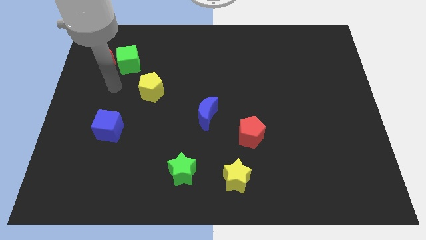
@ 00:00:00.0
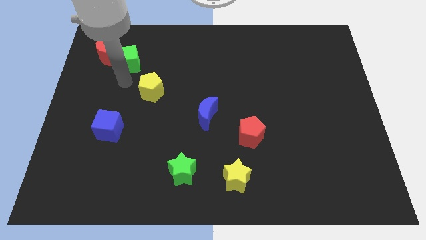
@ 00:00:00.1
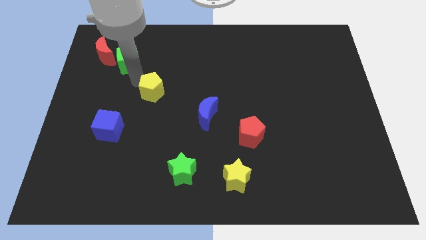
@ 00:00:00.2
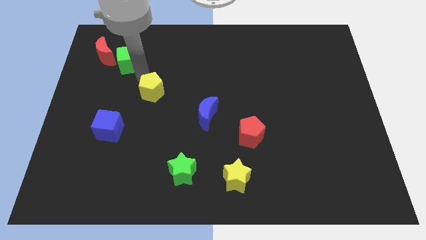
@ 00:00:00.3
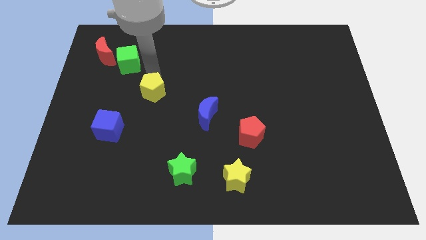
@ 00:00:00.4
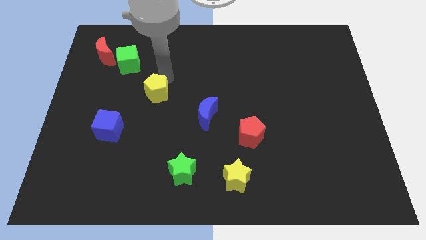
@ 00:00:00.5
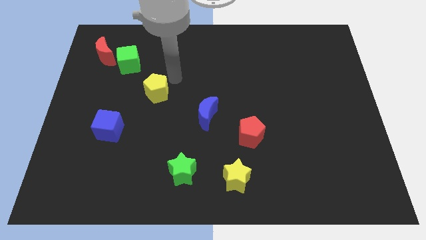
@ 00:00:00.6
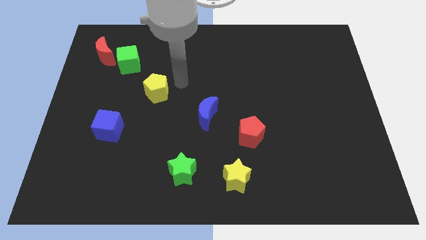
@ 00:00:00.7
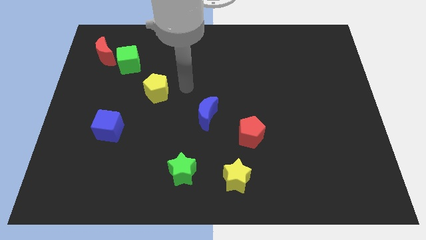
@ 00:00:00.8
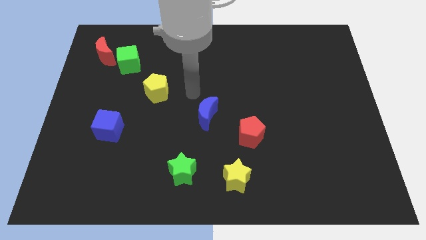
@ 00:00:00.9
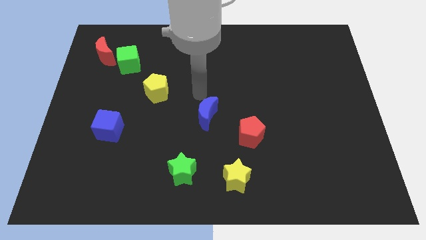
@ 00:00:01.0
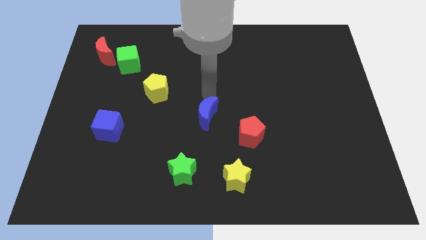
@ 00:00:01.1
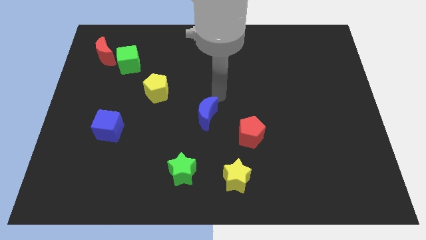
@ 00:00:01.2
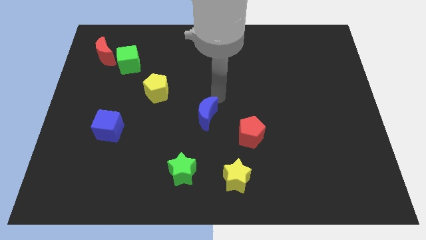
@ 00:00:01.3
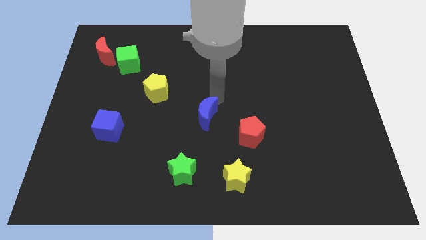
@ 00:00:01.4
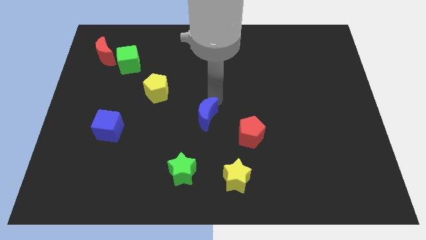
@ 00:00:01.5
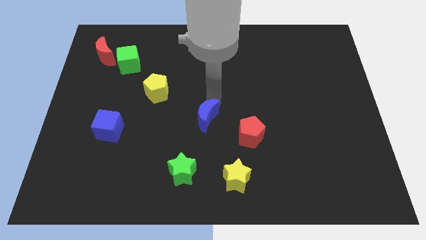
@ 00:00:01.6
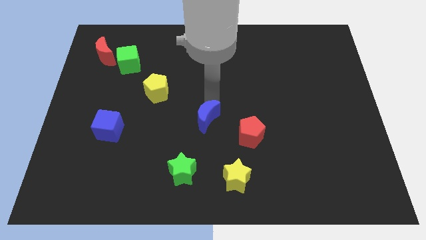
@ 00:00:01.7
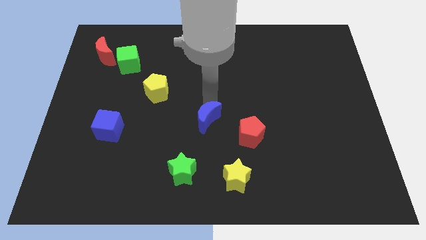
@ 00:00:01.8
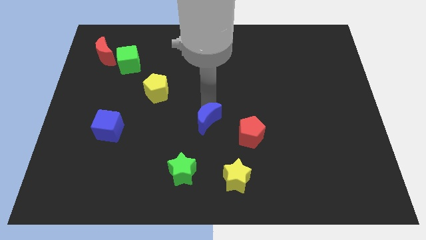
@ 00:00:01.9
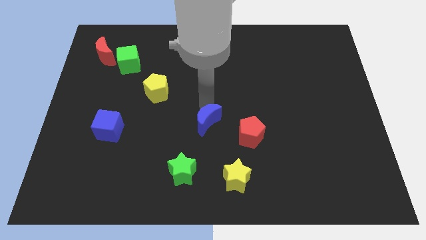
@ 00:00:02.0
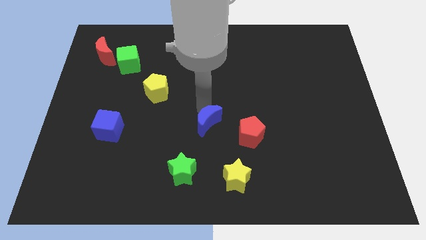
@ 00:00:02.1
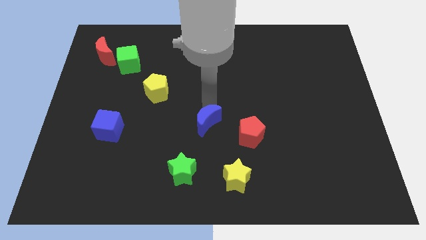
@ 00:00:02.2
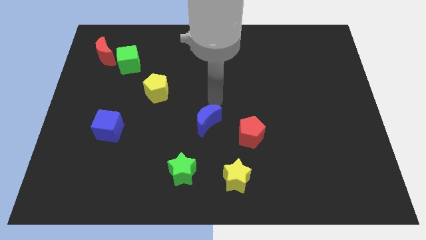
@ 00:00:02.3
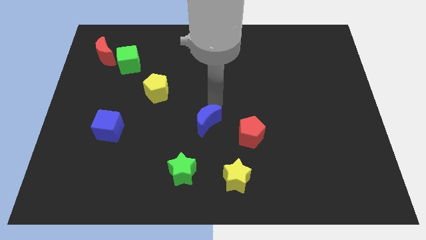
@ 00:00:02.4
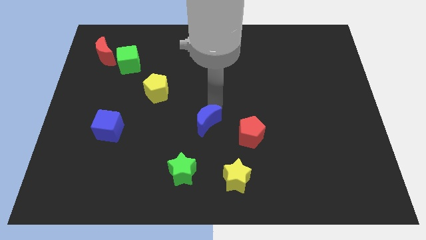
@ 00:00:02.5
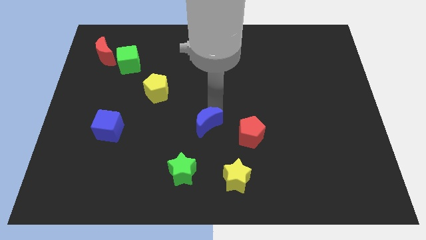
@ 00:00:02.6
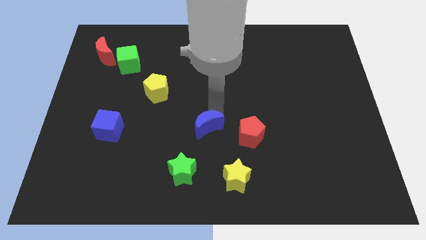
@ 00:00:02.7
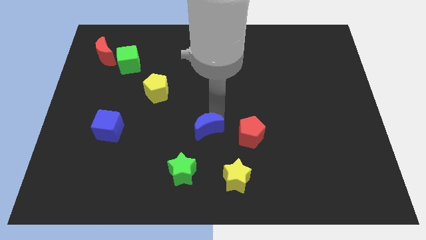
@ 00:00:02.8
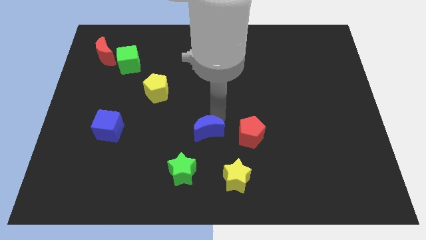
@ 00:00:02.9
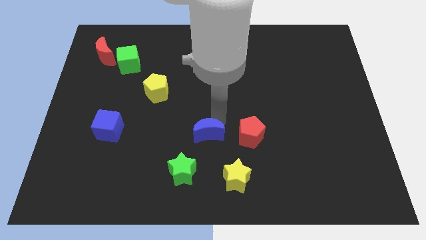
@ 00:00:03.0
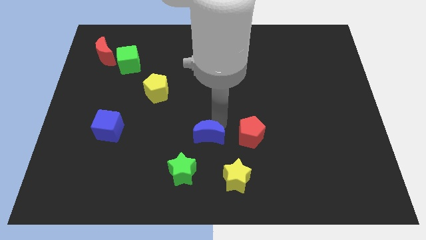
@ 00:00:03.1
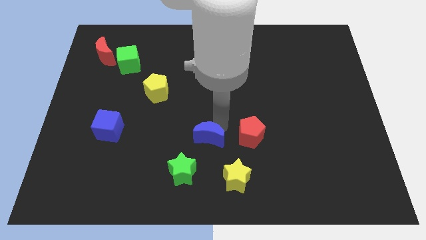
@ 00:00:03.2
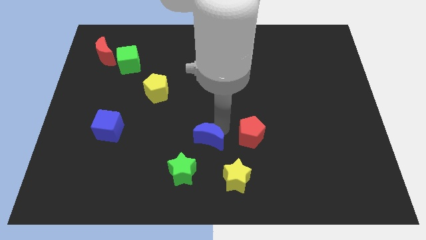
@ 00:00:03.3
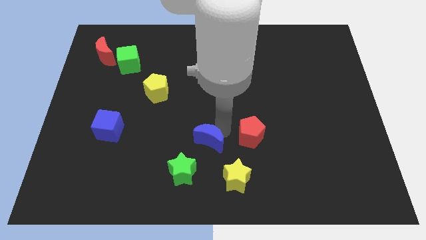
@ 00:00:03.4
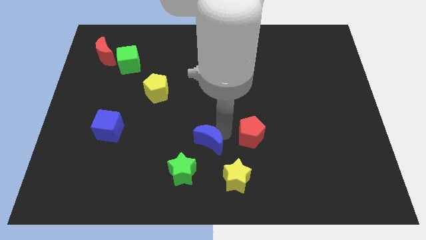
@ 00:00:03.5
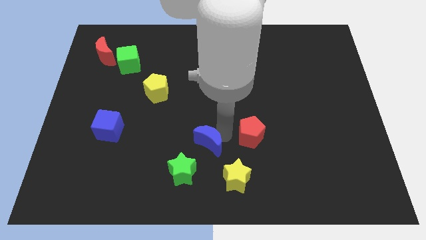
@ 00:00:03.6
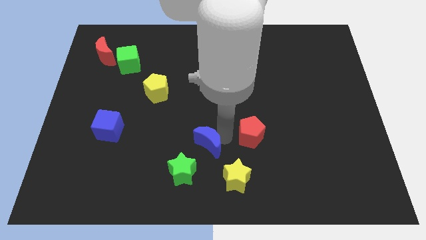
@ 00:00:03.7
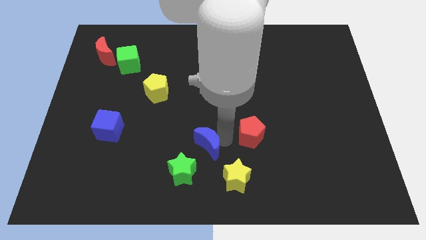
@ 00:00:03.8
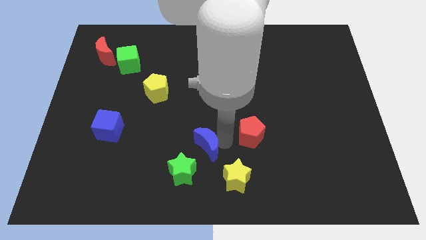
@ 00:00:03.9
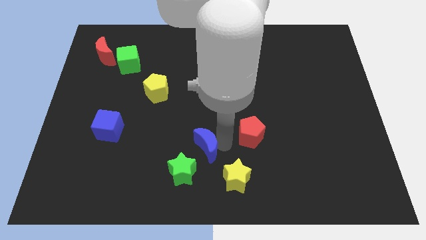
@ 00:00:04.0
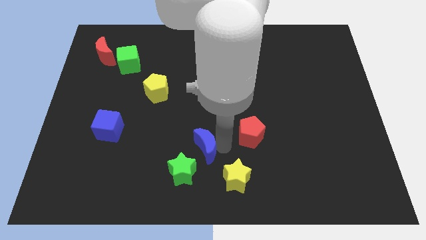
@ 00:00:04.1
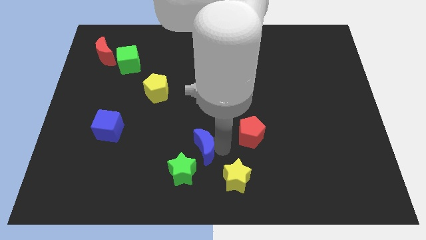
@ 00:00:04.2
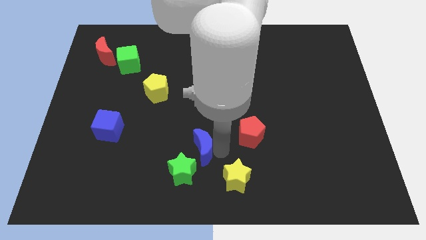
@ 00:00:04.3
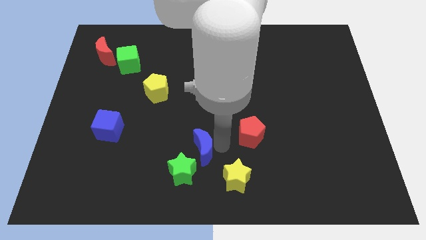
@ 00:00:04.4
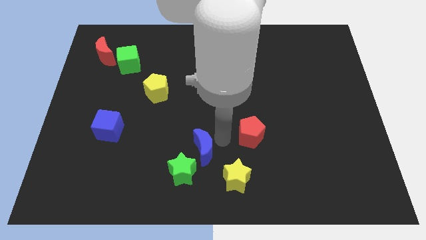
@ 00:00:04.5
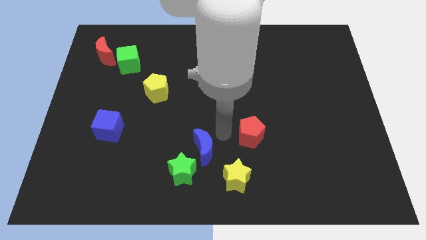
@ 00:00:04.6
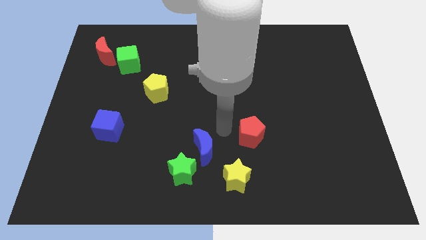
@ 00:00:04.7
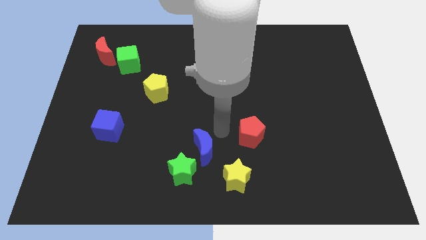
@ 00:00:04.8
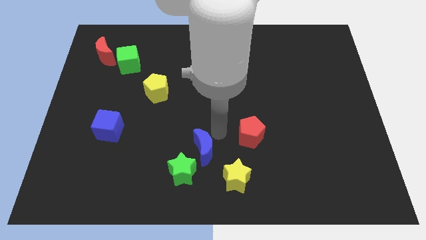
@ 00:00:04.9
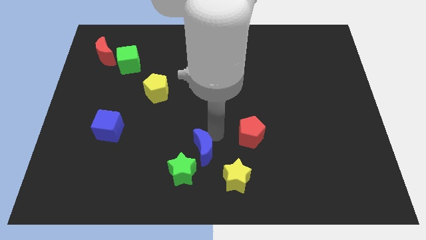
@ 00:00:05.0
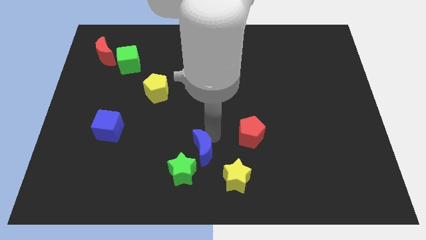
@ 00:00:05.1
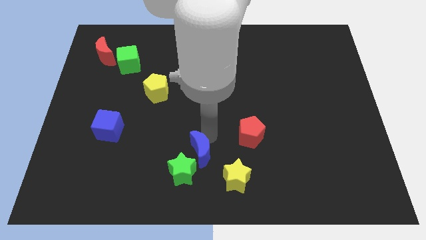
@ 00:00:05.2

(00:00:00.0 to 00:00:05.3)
move the blue moon next to the green star

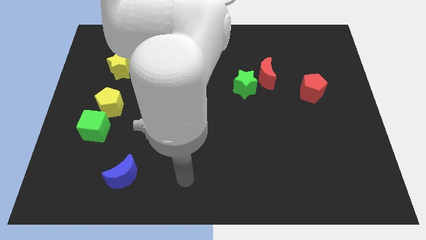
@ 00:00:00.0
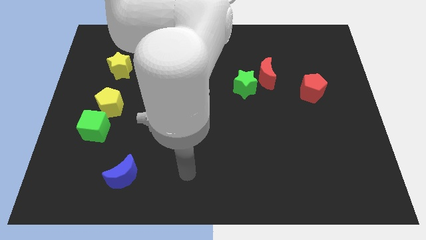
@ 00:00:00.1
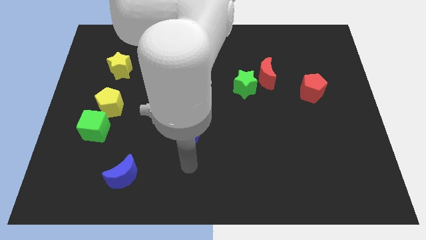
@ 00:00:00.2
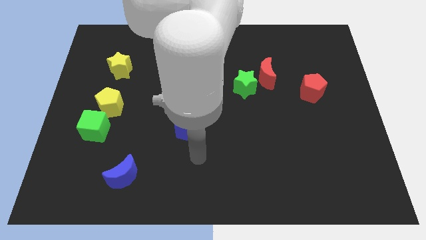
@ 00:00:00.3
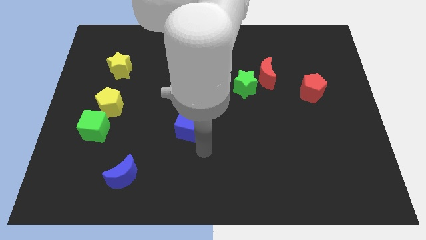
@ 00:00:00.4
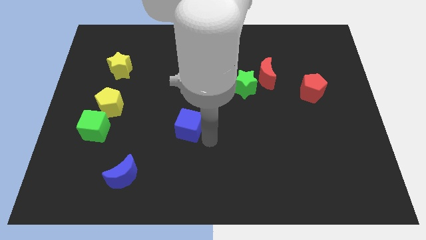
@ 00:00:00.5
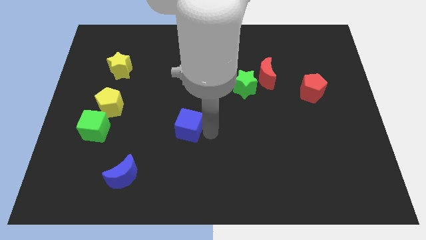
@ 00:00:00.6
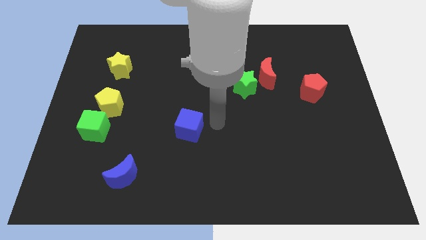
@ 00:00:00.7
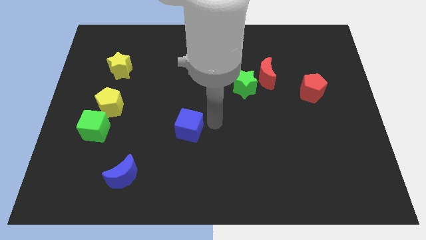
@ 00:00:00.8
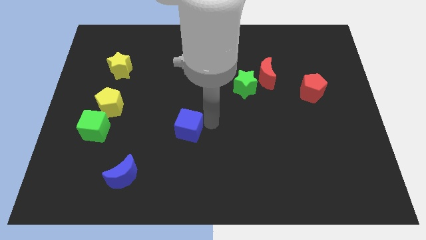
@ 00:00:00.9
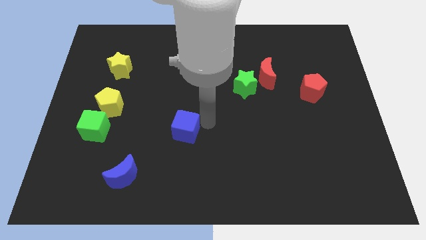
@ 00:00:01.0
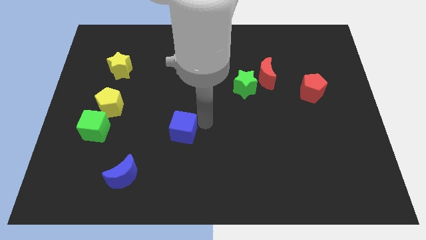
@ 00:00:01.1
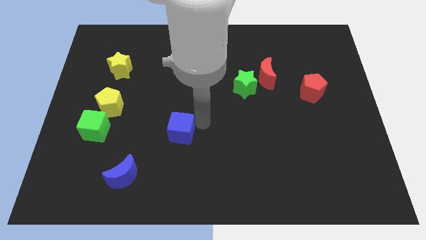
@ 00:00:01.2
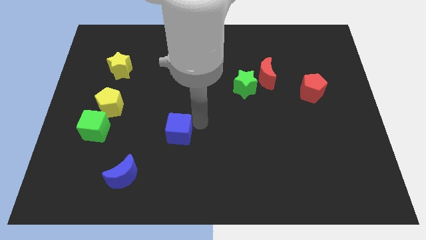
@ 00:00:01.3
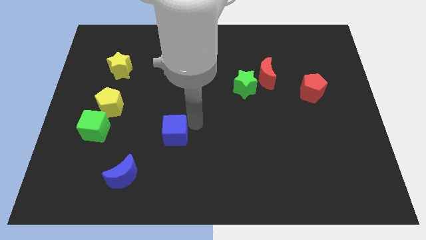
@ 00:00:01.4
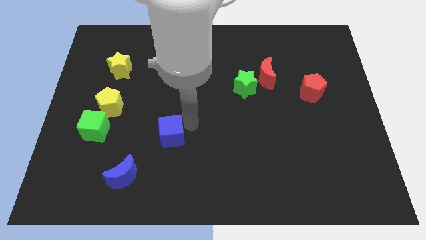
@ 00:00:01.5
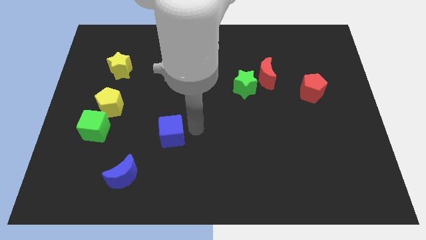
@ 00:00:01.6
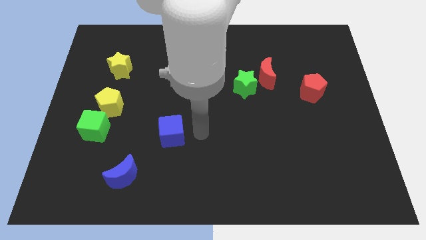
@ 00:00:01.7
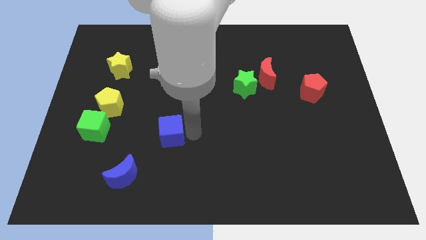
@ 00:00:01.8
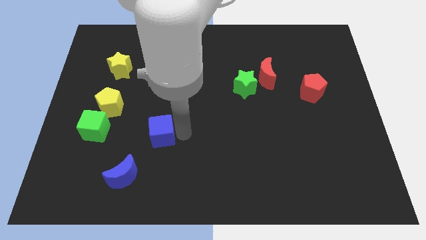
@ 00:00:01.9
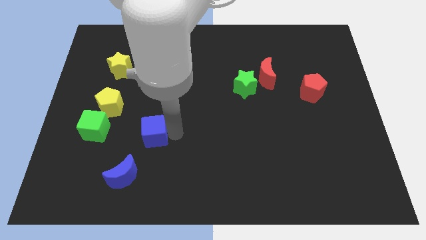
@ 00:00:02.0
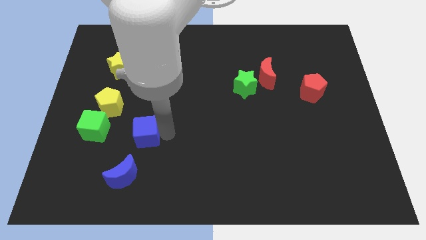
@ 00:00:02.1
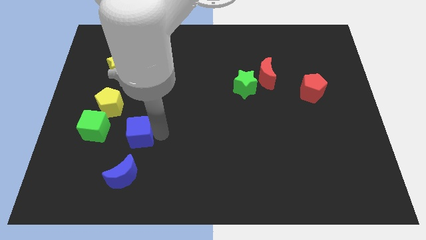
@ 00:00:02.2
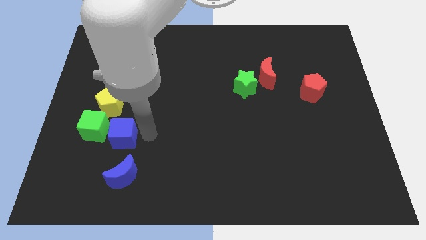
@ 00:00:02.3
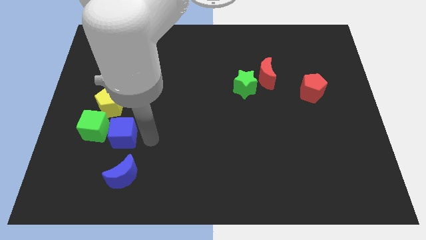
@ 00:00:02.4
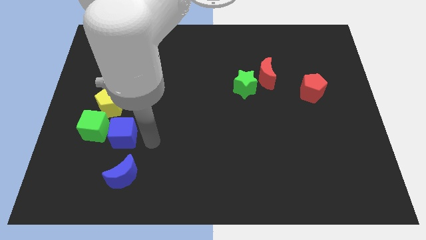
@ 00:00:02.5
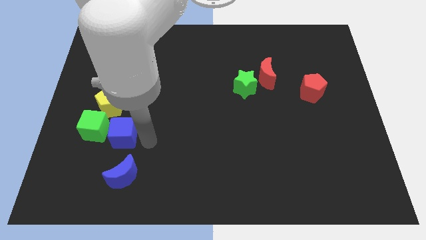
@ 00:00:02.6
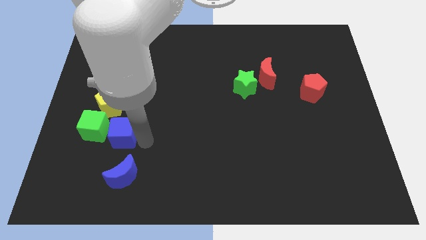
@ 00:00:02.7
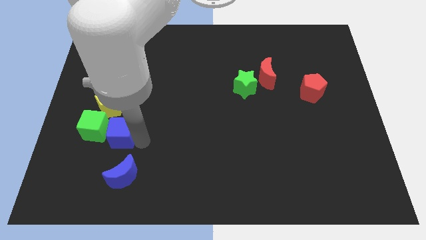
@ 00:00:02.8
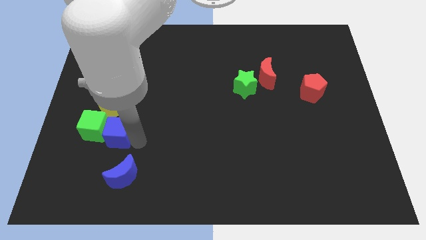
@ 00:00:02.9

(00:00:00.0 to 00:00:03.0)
slide the blue cube next to the green cube
